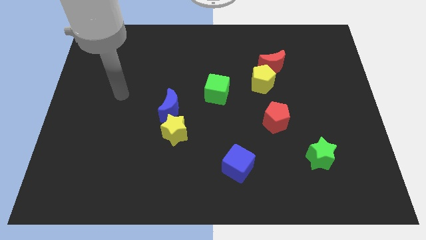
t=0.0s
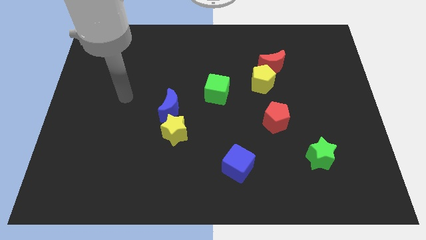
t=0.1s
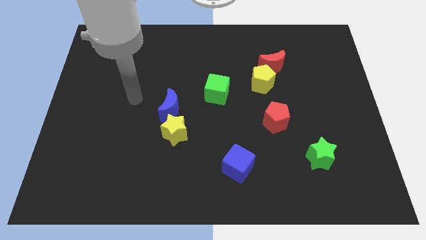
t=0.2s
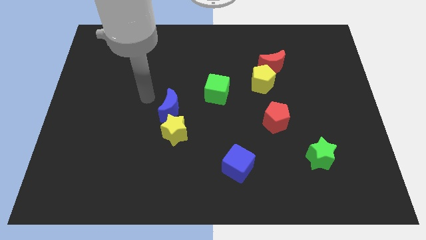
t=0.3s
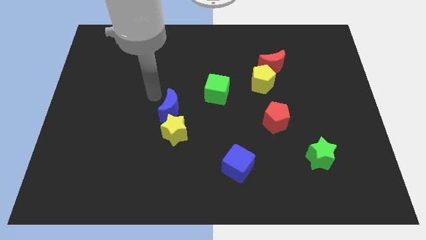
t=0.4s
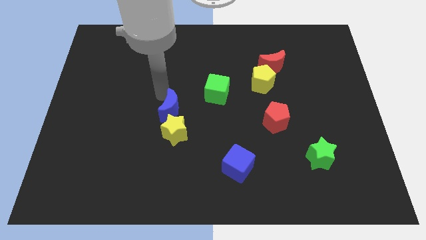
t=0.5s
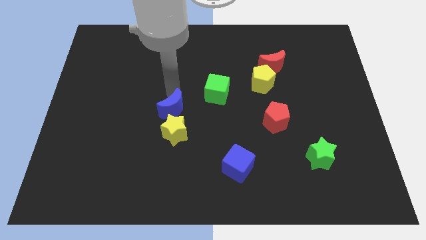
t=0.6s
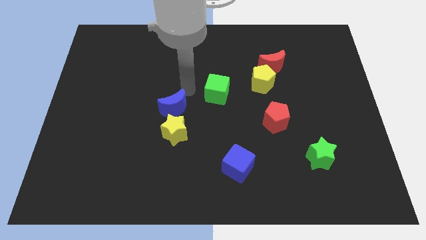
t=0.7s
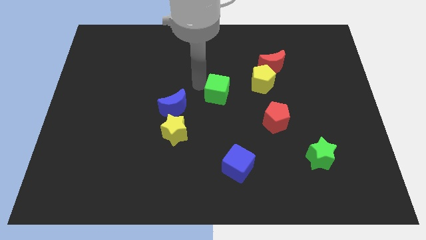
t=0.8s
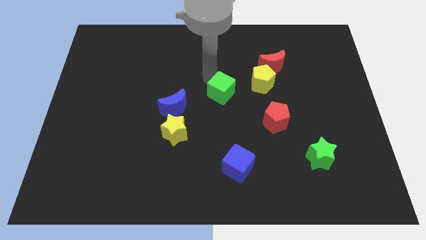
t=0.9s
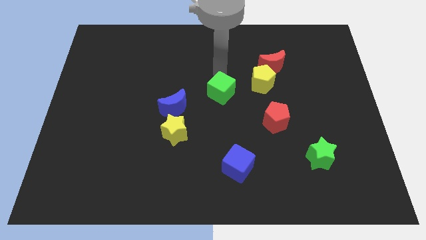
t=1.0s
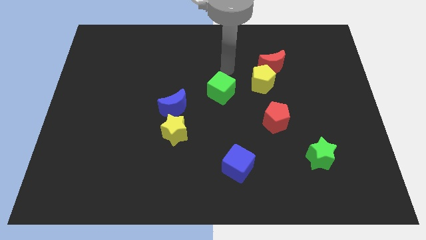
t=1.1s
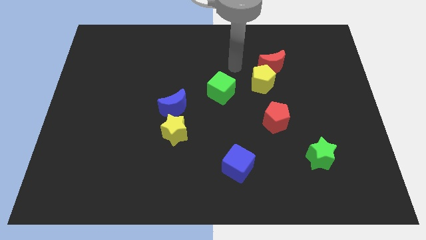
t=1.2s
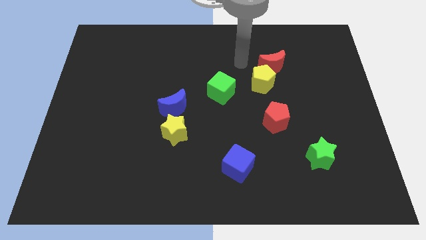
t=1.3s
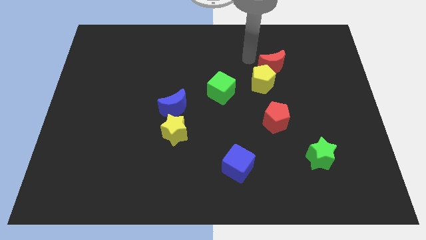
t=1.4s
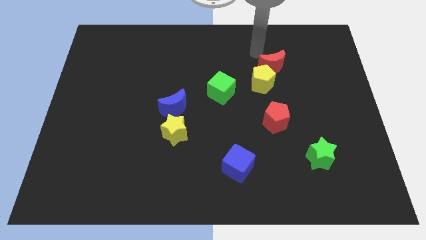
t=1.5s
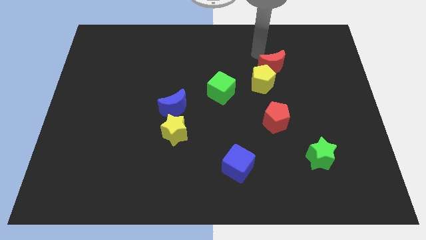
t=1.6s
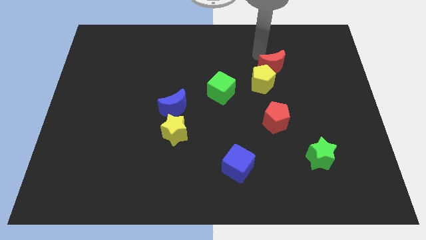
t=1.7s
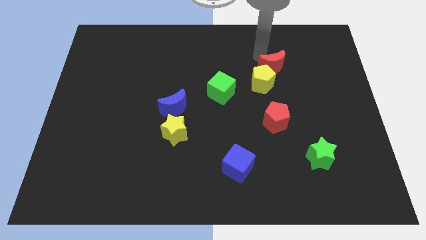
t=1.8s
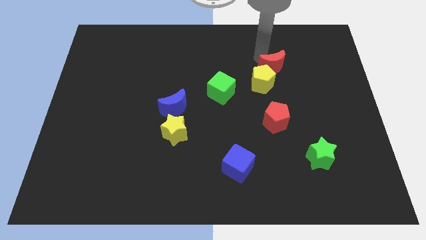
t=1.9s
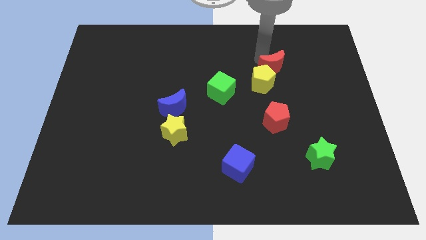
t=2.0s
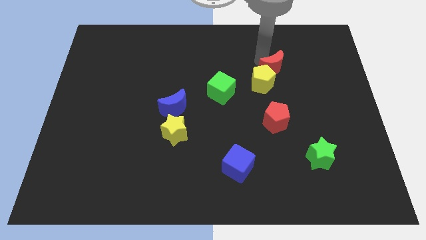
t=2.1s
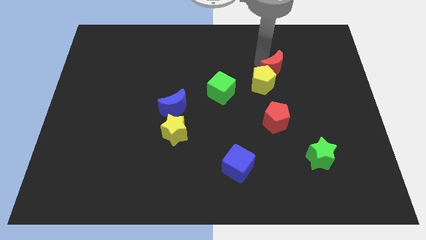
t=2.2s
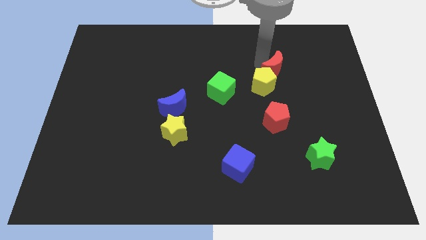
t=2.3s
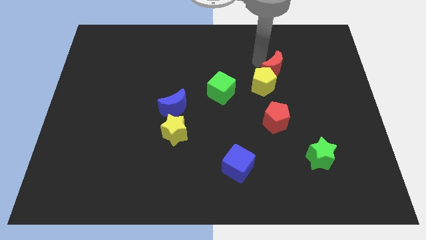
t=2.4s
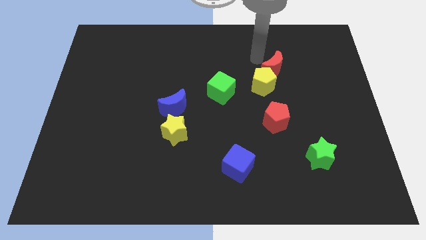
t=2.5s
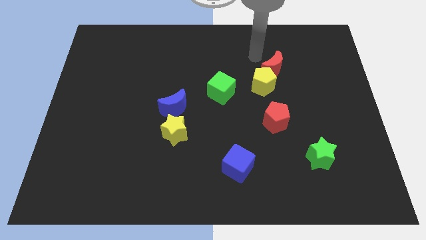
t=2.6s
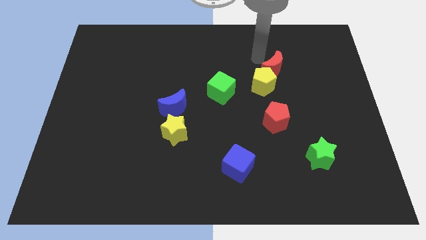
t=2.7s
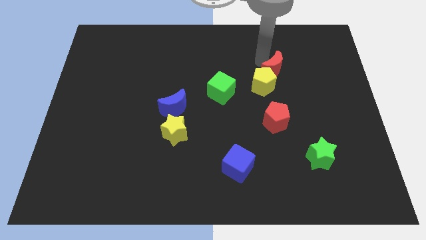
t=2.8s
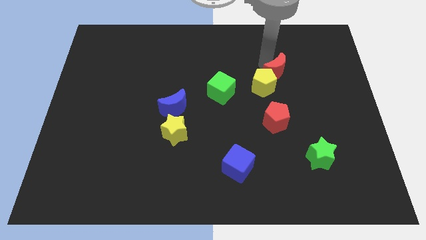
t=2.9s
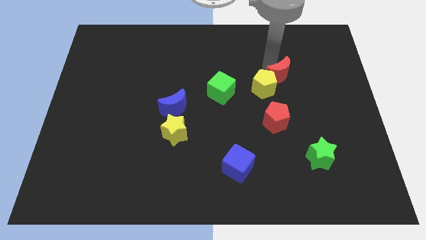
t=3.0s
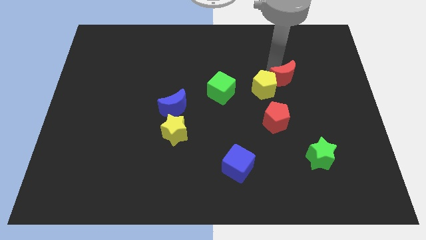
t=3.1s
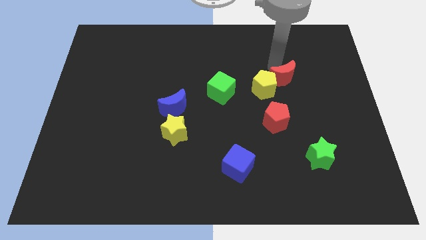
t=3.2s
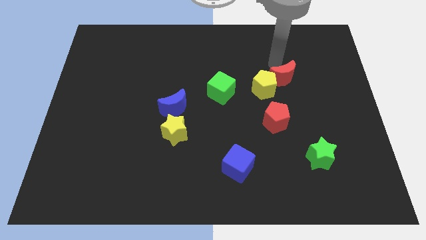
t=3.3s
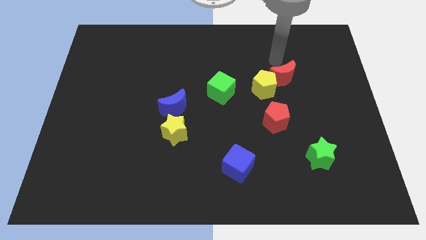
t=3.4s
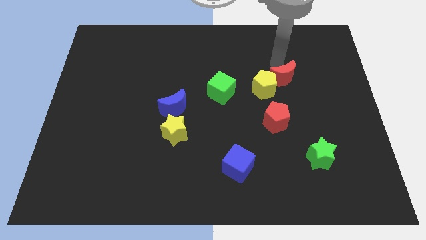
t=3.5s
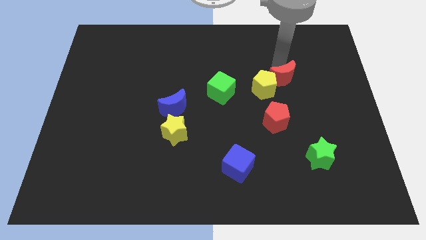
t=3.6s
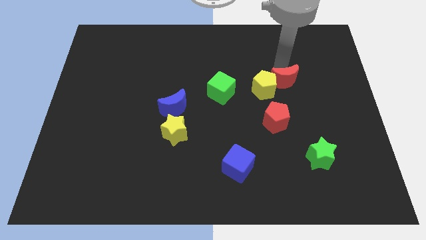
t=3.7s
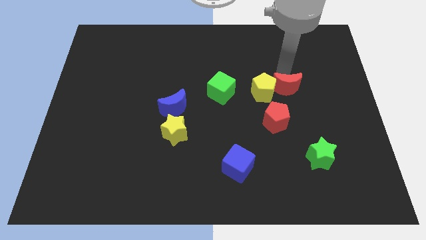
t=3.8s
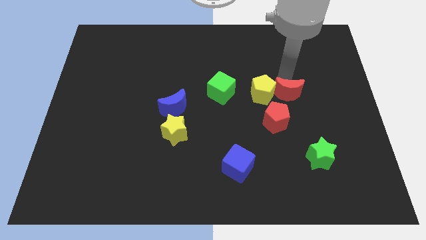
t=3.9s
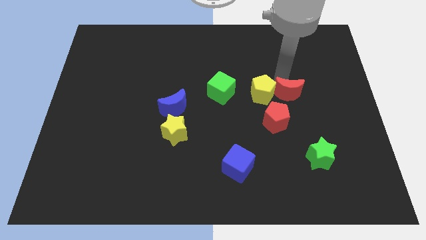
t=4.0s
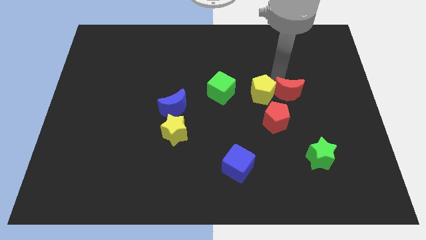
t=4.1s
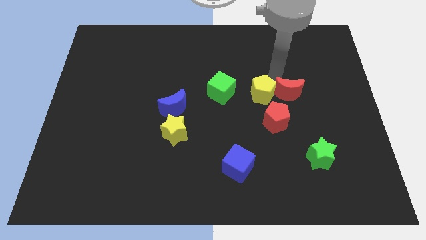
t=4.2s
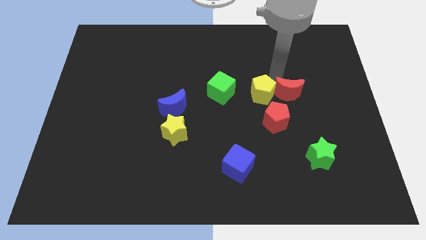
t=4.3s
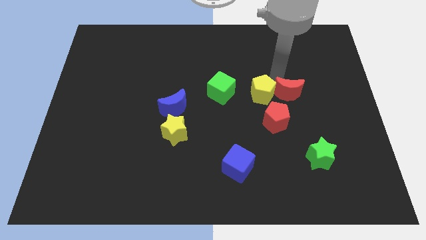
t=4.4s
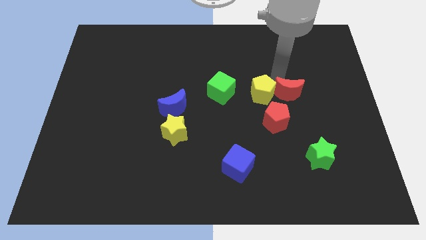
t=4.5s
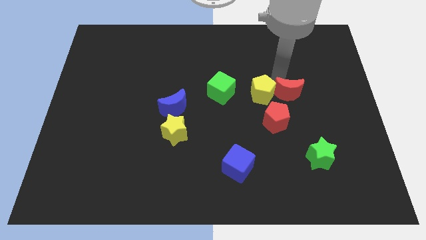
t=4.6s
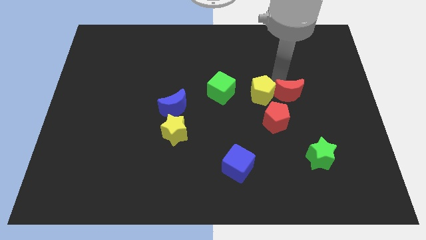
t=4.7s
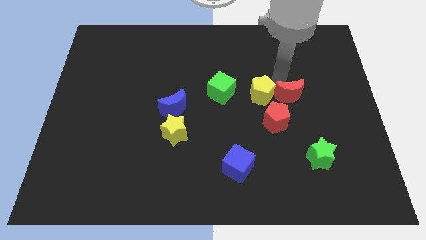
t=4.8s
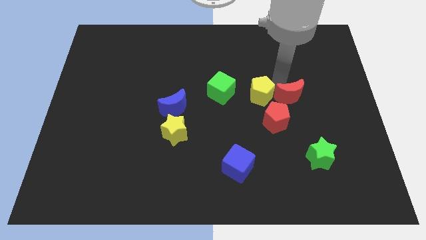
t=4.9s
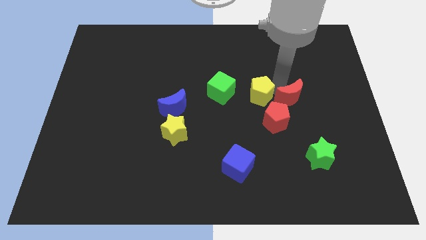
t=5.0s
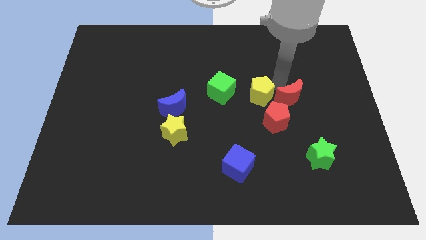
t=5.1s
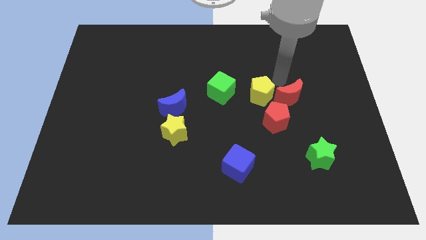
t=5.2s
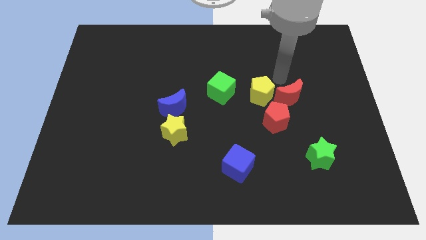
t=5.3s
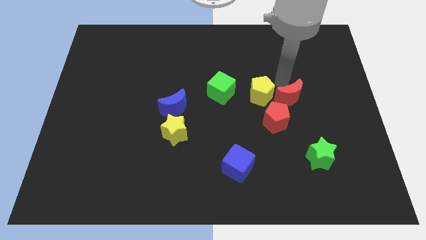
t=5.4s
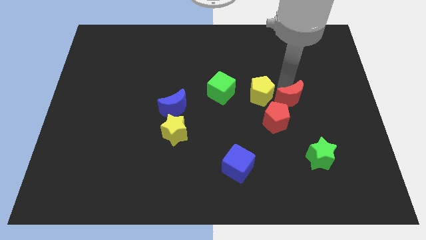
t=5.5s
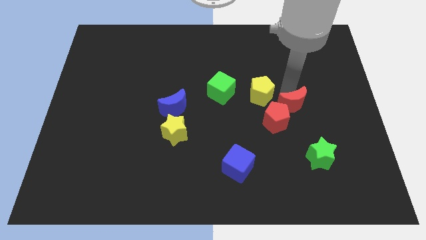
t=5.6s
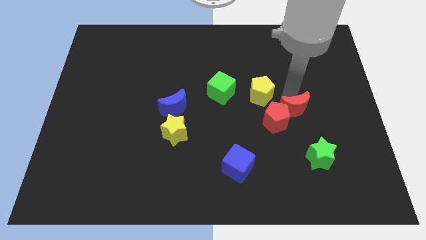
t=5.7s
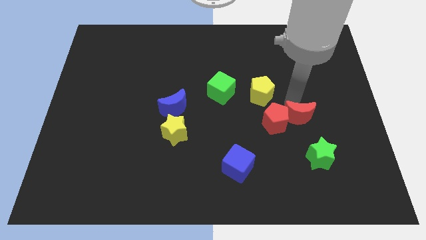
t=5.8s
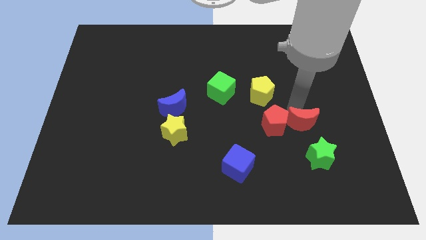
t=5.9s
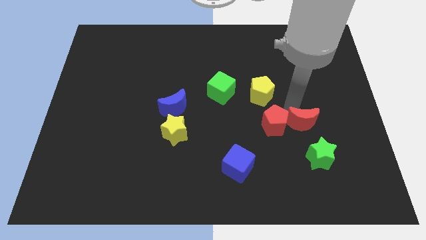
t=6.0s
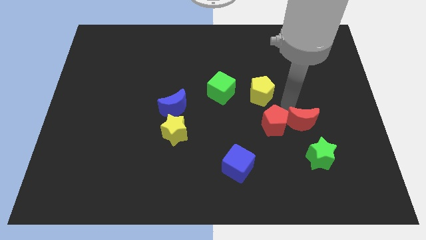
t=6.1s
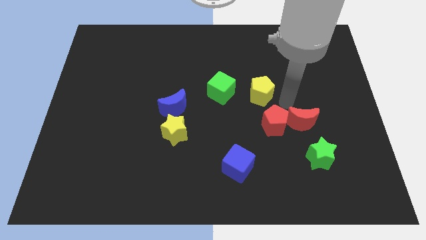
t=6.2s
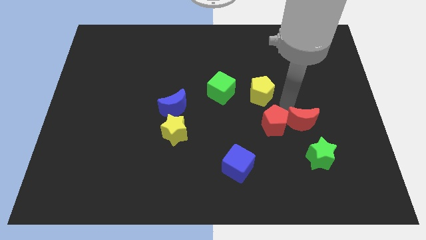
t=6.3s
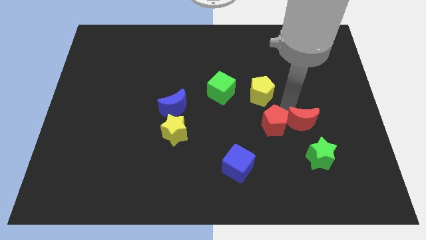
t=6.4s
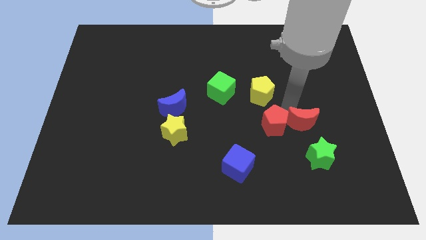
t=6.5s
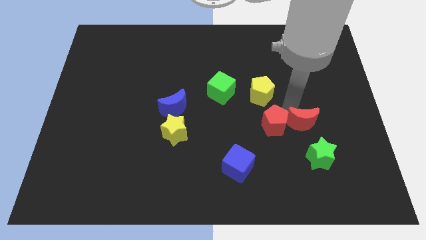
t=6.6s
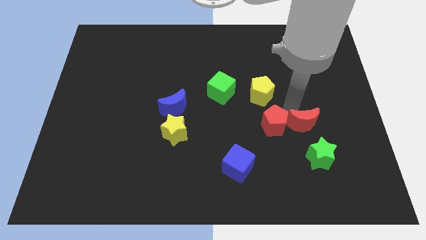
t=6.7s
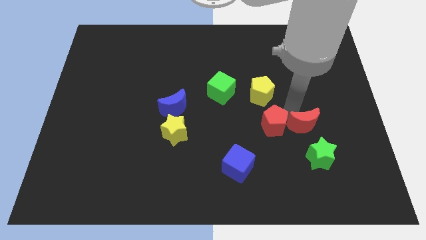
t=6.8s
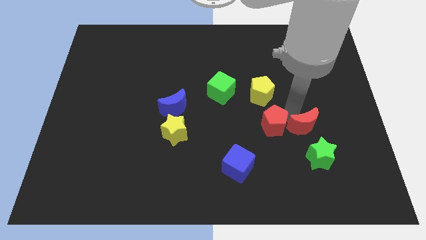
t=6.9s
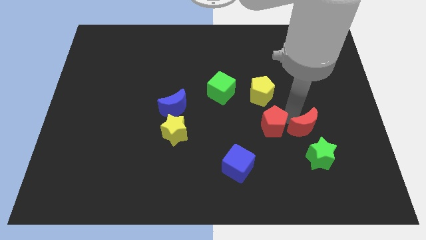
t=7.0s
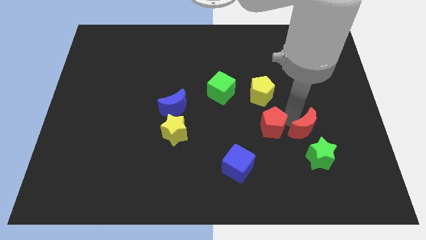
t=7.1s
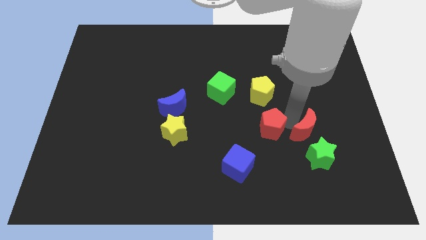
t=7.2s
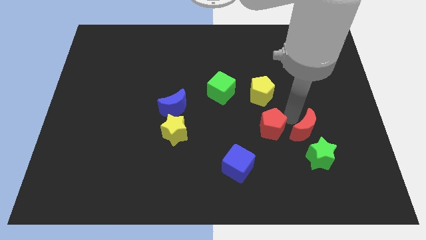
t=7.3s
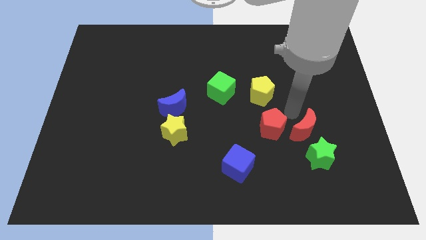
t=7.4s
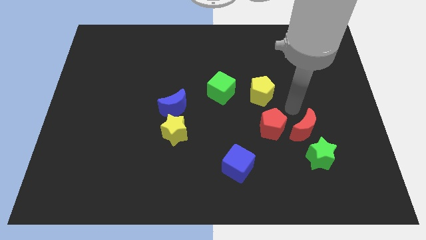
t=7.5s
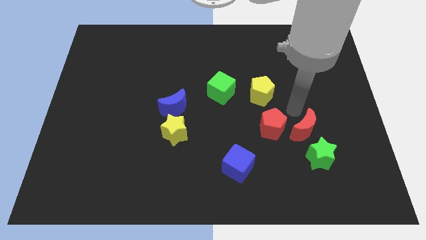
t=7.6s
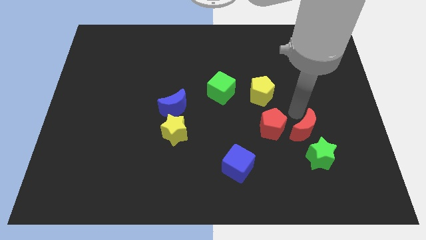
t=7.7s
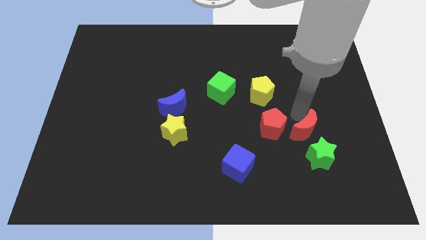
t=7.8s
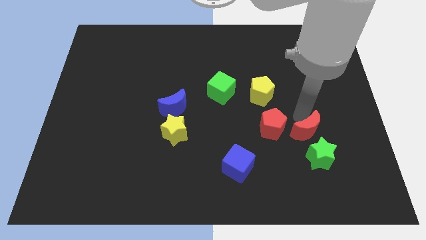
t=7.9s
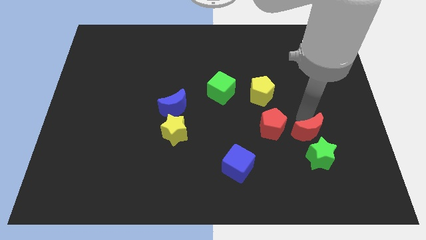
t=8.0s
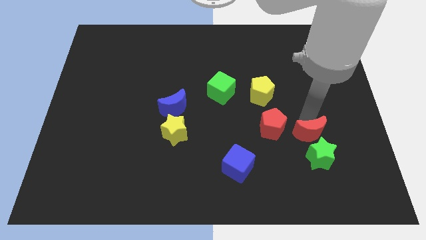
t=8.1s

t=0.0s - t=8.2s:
slide the red moon towards the green star
